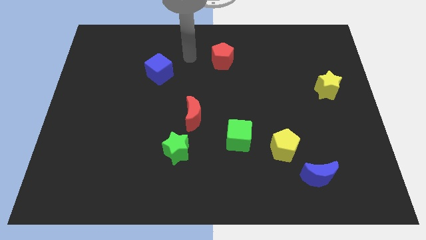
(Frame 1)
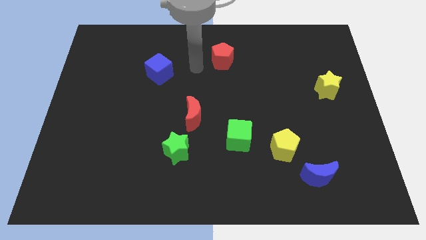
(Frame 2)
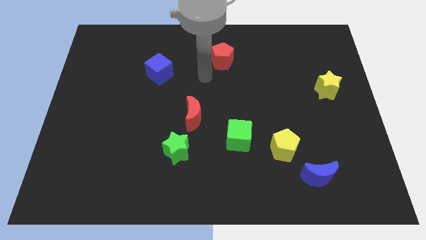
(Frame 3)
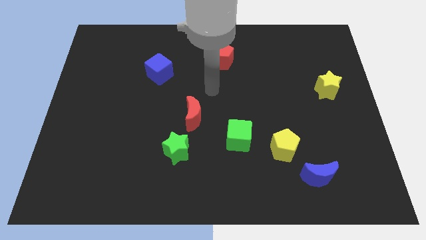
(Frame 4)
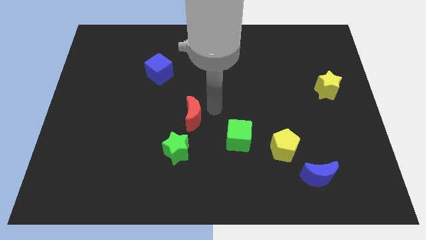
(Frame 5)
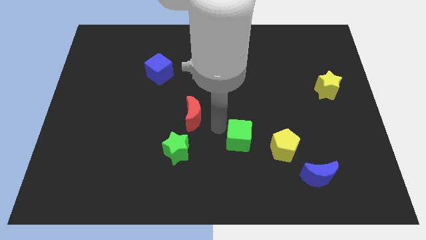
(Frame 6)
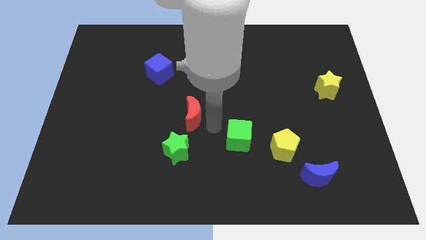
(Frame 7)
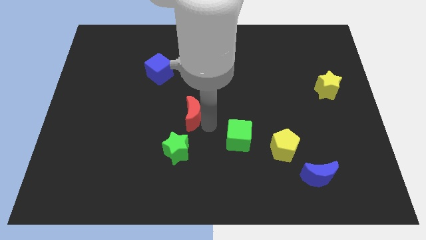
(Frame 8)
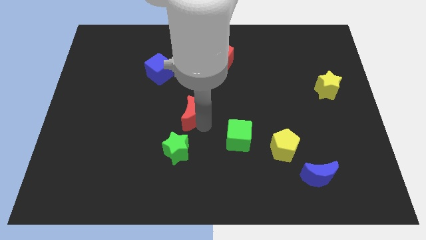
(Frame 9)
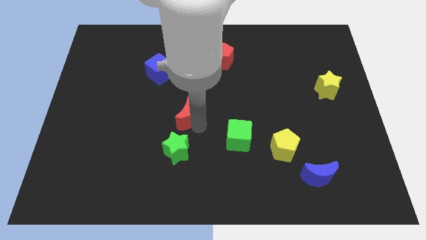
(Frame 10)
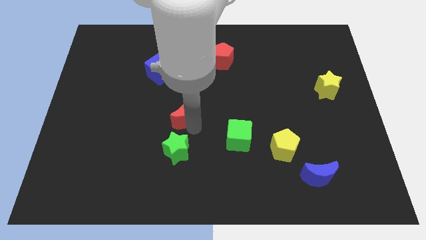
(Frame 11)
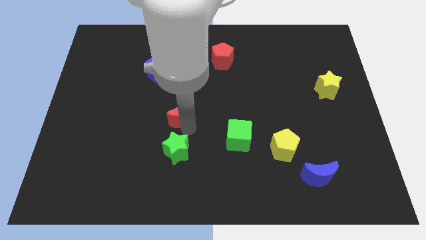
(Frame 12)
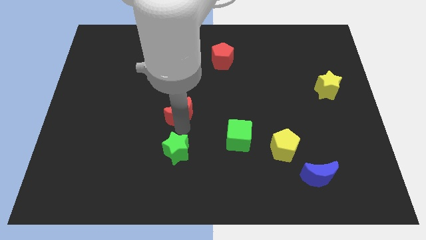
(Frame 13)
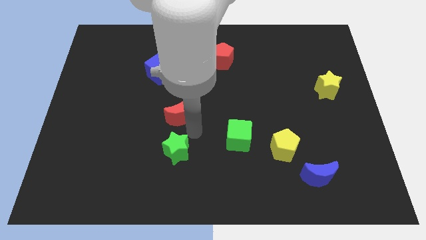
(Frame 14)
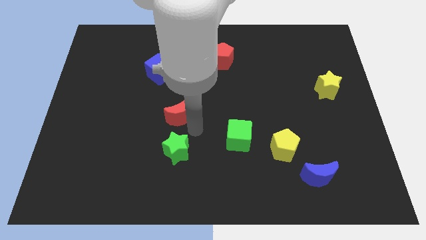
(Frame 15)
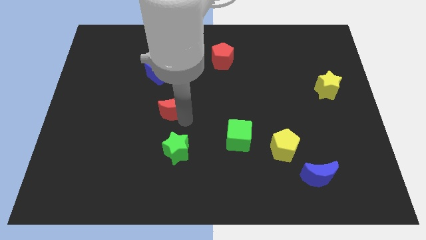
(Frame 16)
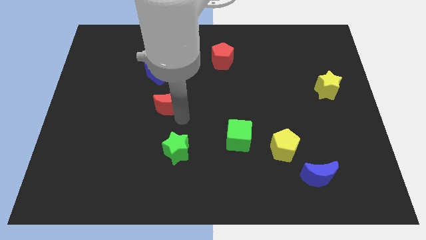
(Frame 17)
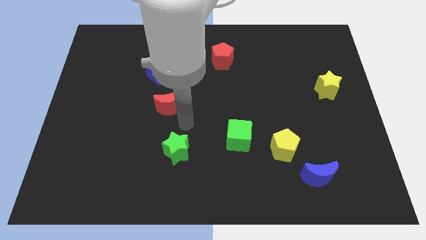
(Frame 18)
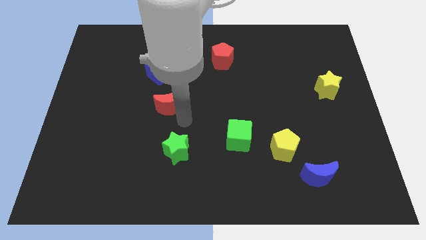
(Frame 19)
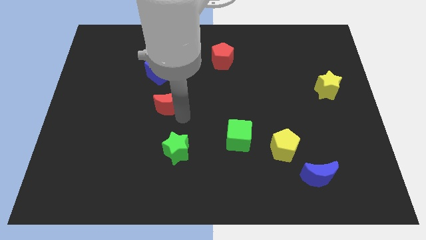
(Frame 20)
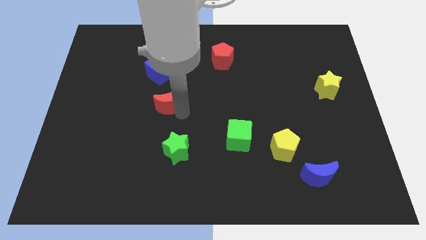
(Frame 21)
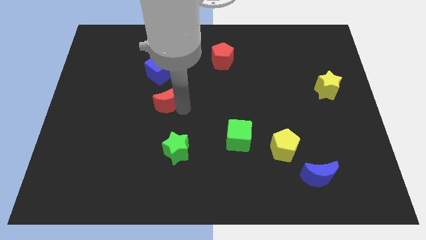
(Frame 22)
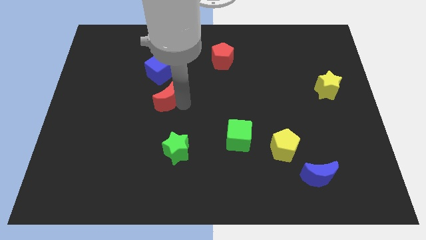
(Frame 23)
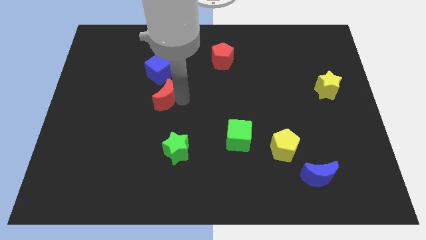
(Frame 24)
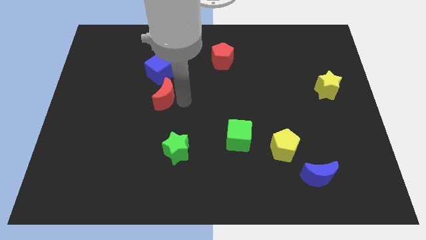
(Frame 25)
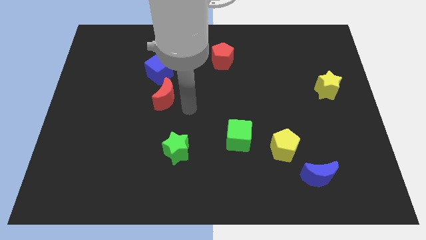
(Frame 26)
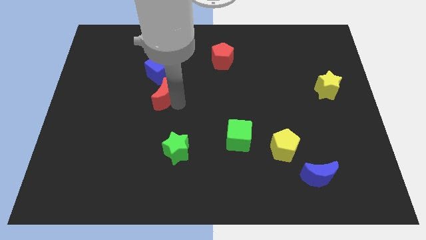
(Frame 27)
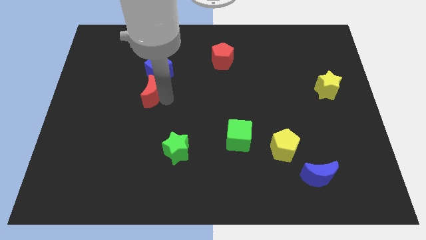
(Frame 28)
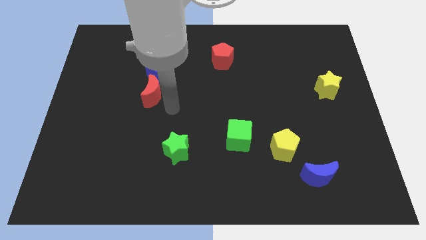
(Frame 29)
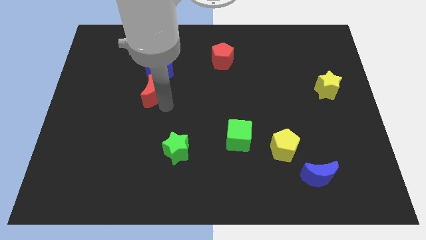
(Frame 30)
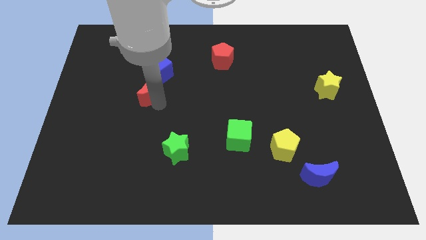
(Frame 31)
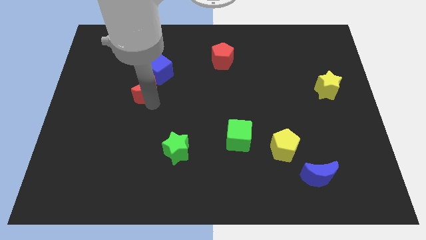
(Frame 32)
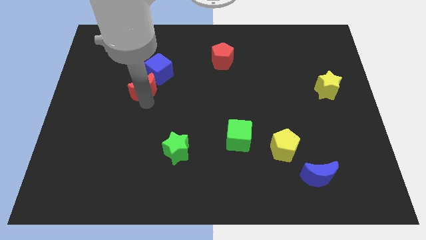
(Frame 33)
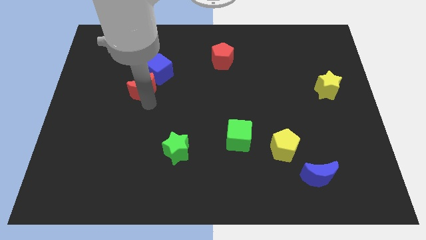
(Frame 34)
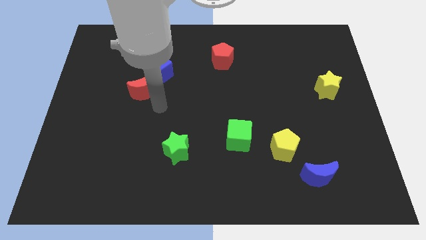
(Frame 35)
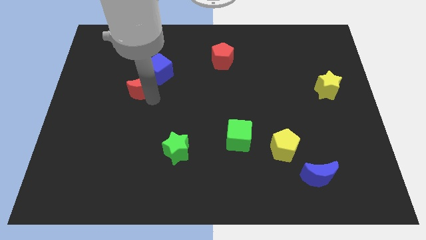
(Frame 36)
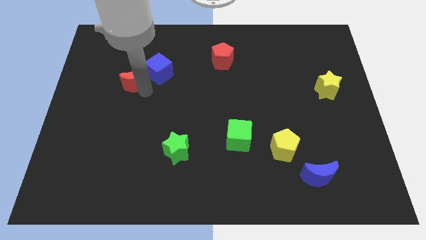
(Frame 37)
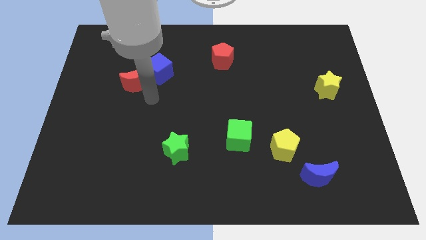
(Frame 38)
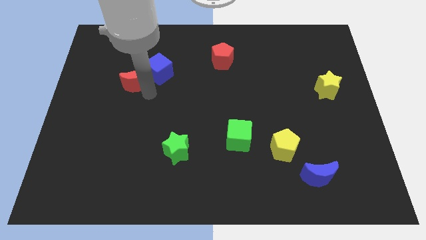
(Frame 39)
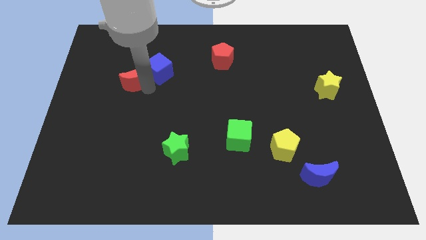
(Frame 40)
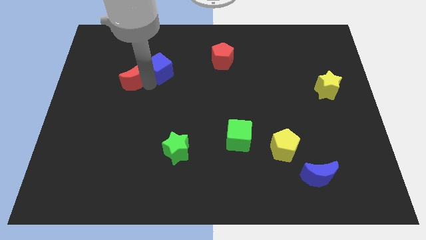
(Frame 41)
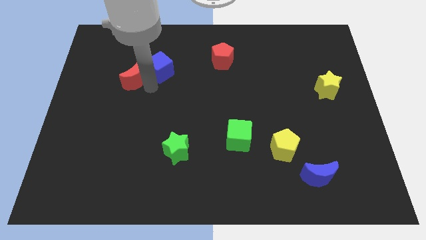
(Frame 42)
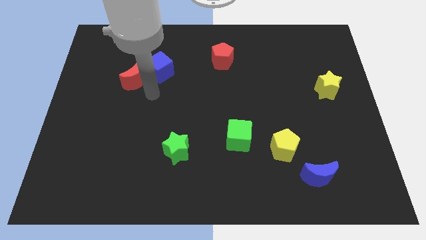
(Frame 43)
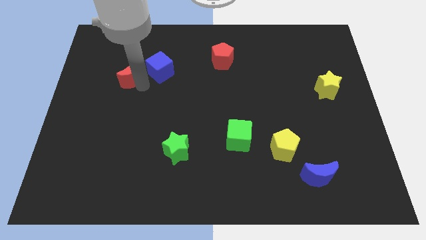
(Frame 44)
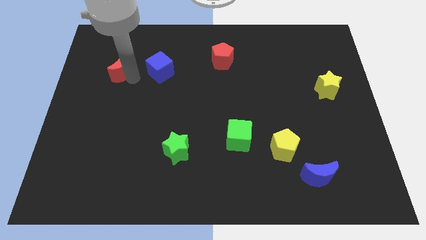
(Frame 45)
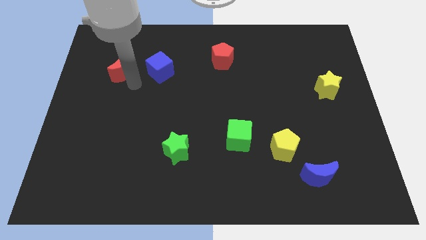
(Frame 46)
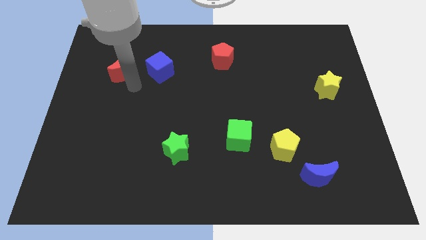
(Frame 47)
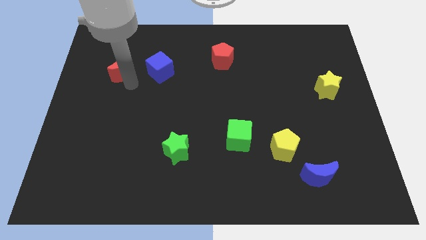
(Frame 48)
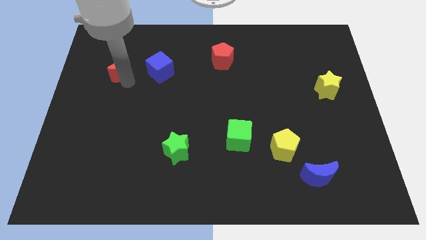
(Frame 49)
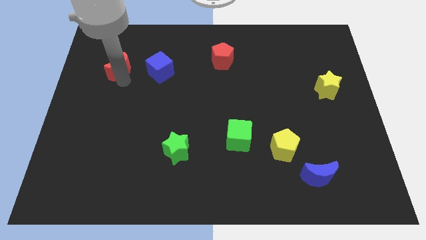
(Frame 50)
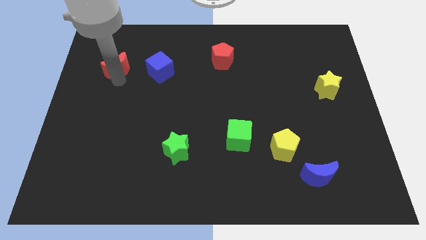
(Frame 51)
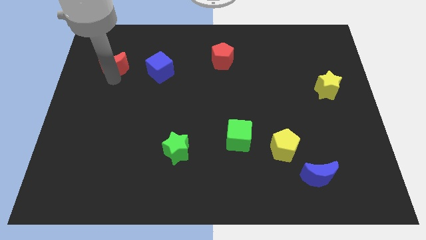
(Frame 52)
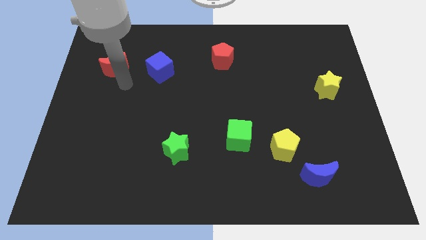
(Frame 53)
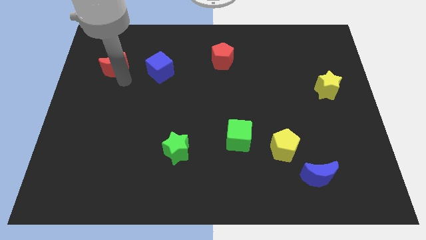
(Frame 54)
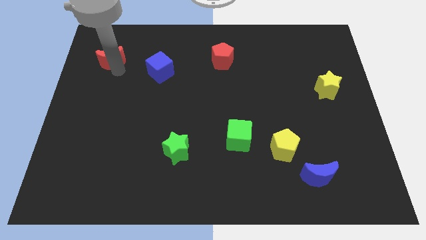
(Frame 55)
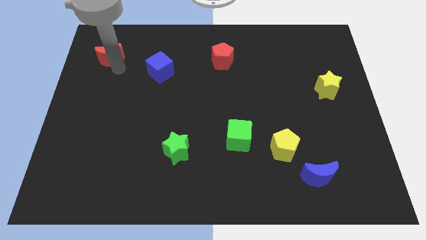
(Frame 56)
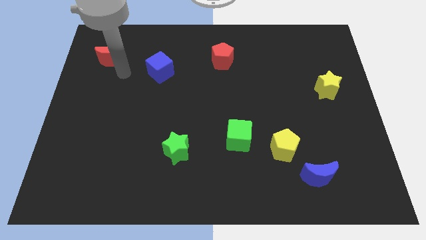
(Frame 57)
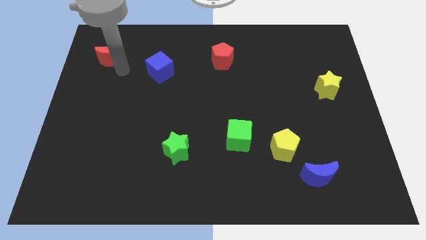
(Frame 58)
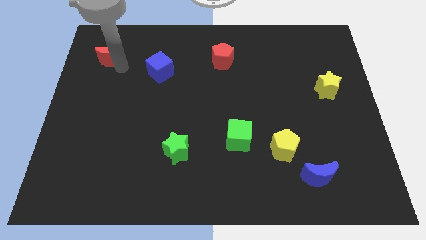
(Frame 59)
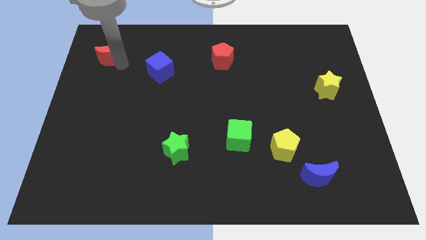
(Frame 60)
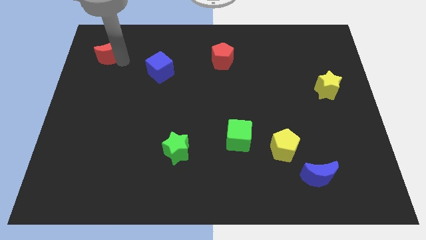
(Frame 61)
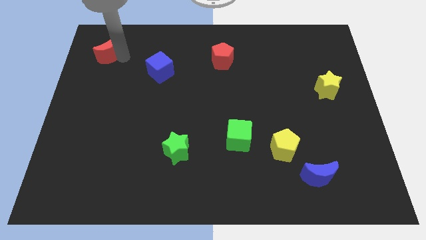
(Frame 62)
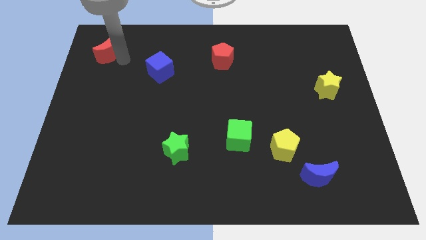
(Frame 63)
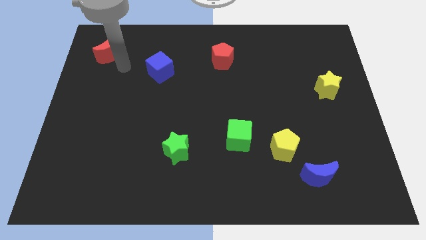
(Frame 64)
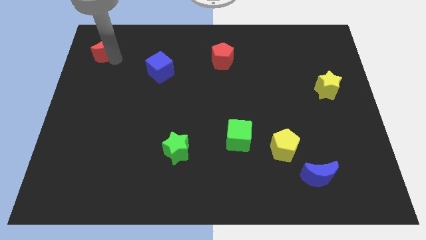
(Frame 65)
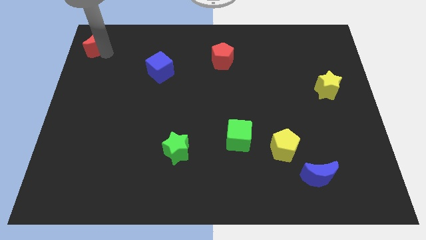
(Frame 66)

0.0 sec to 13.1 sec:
move the red moon to the top left corner
